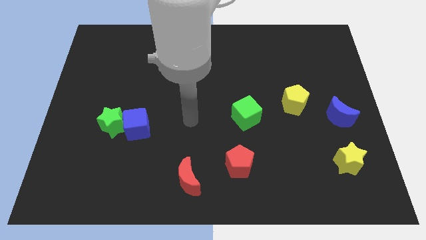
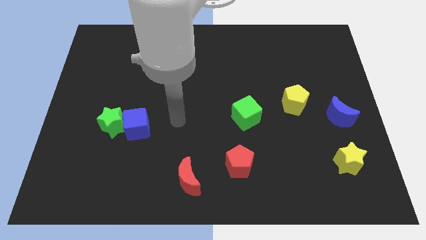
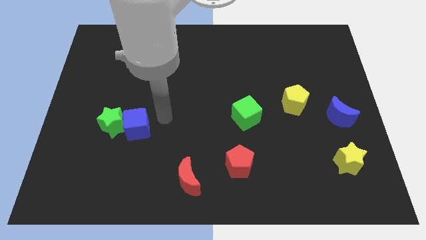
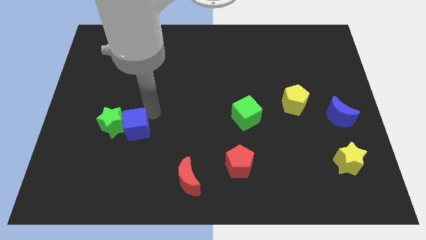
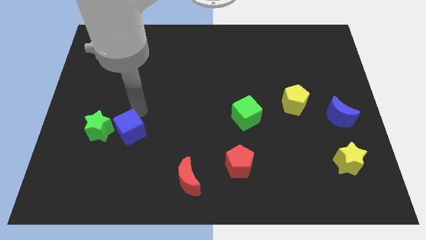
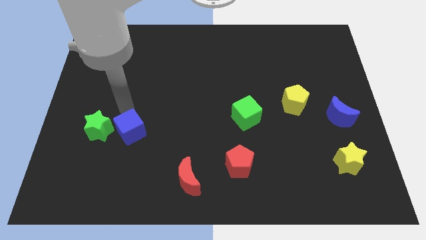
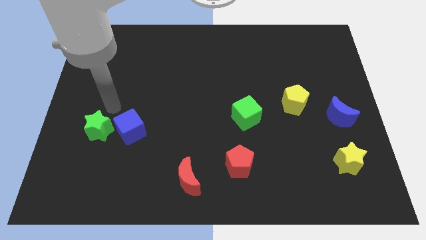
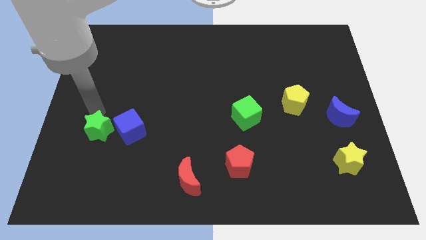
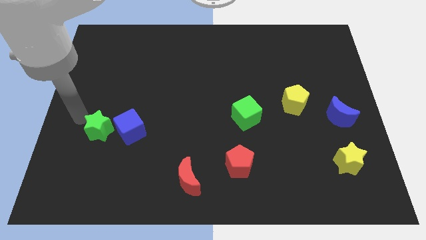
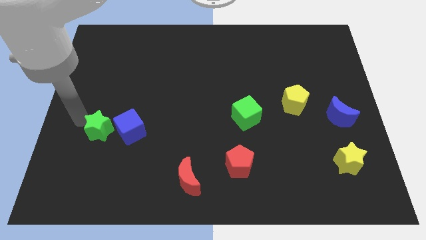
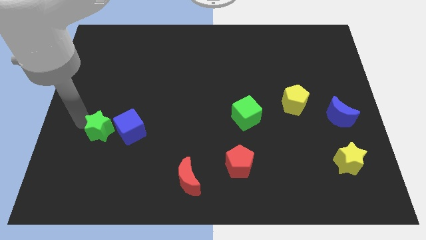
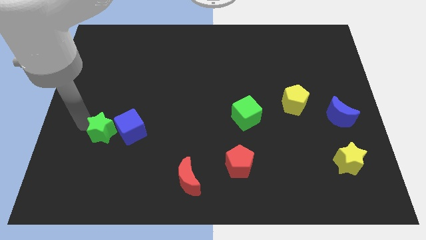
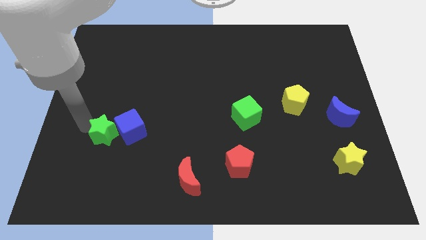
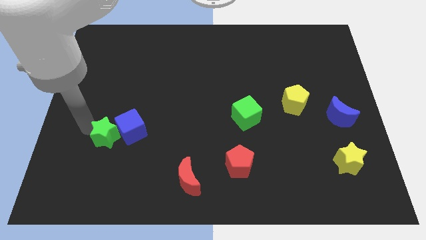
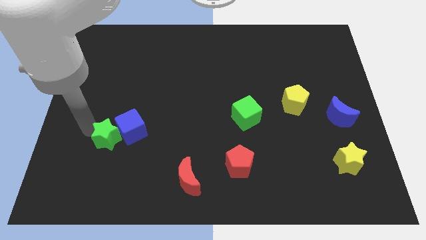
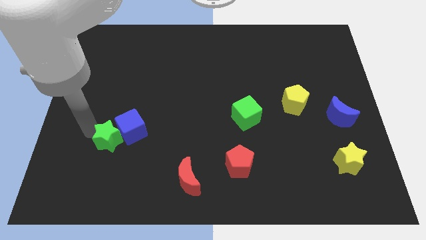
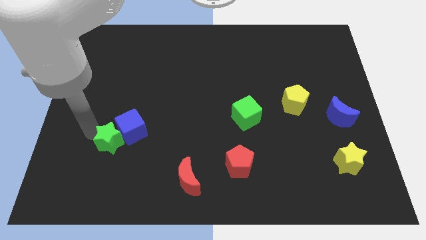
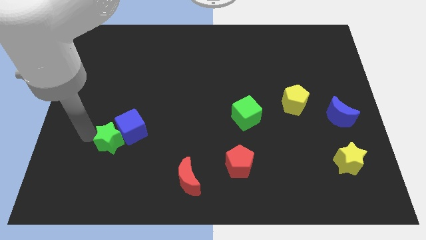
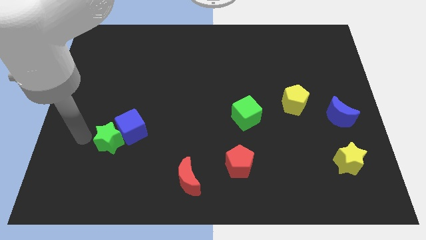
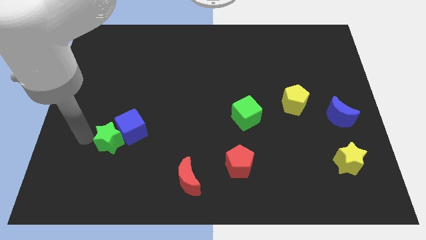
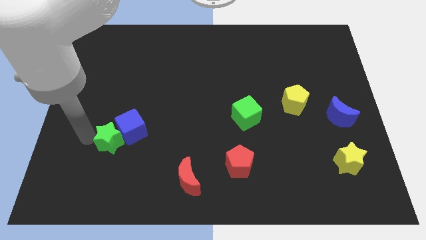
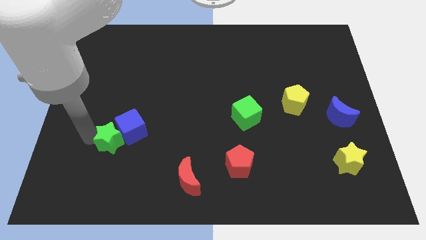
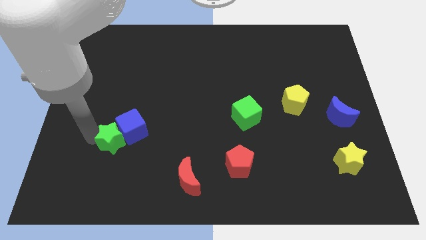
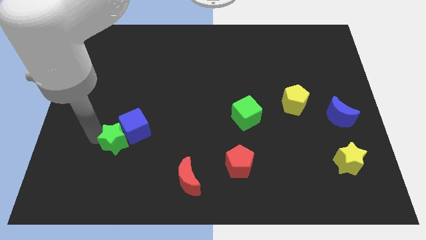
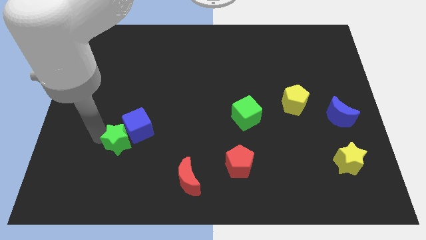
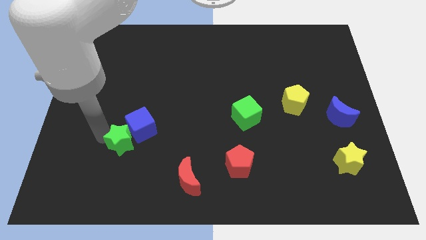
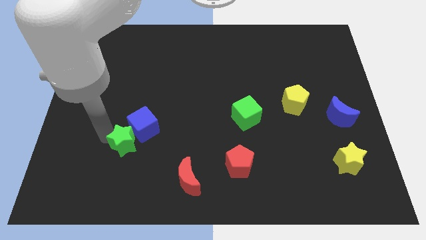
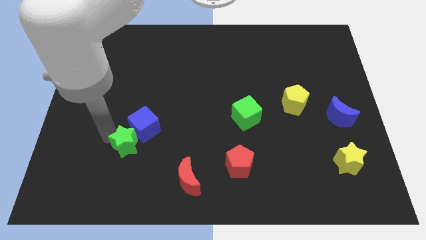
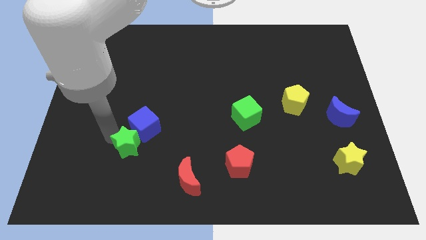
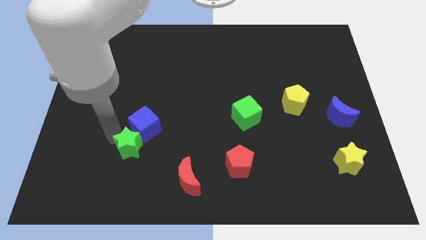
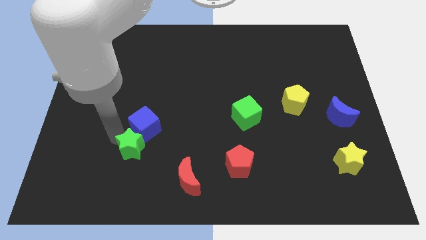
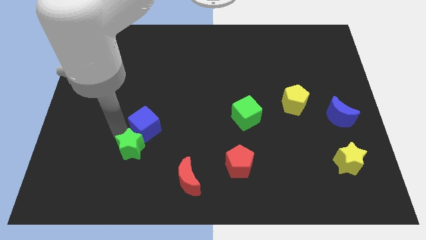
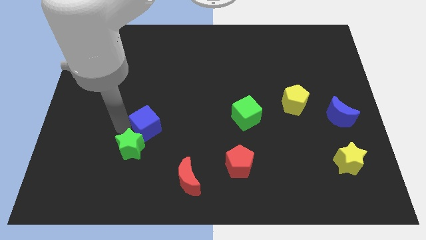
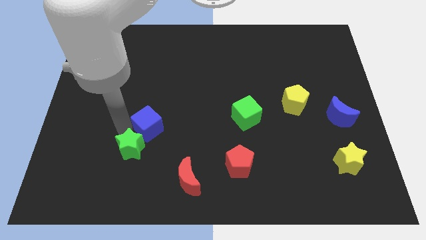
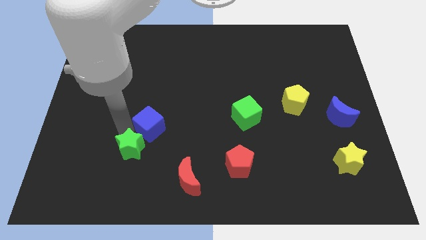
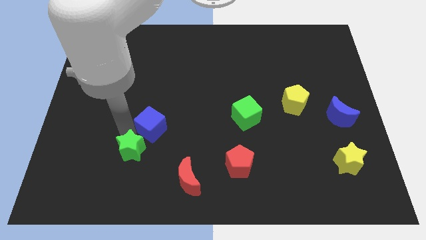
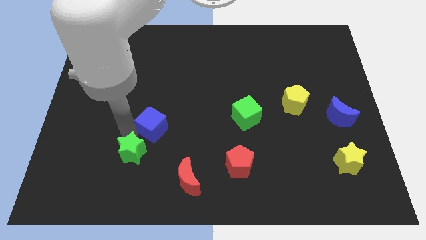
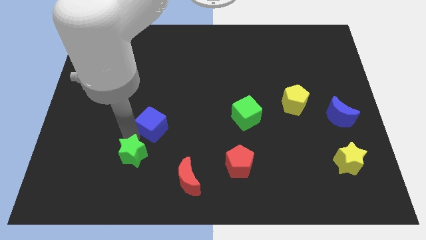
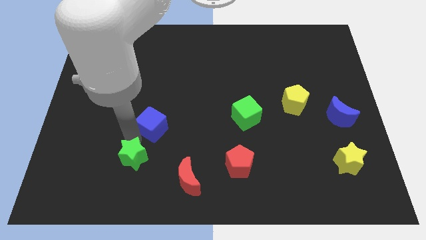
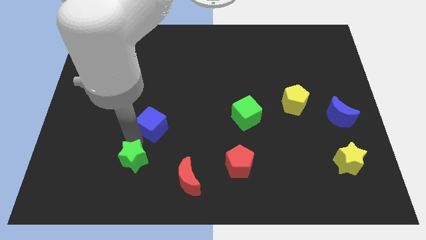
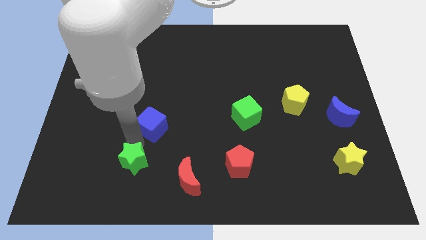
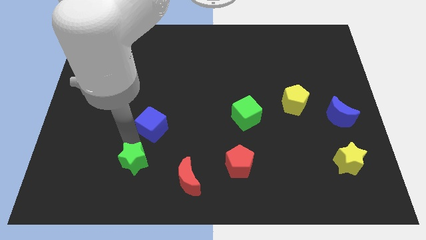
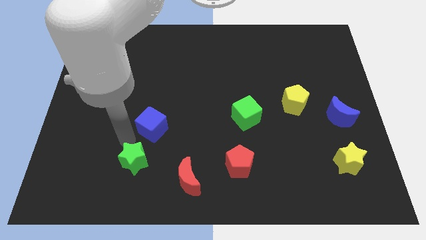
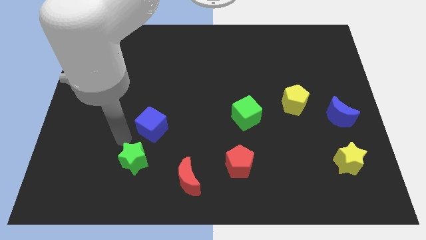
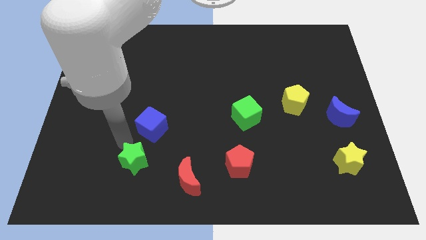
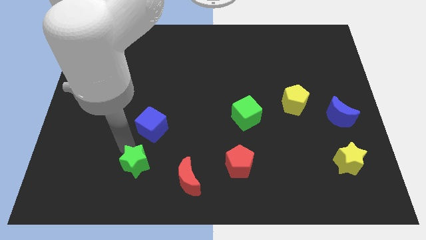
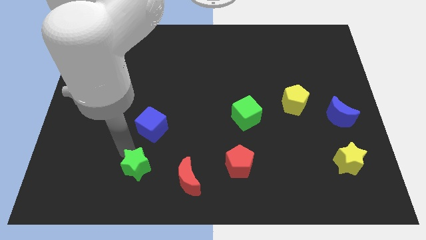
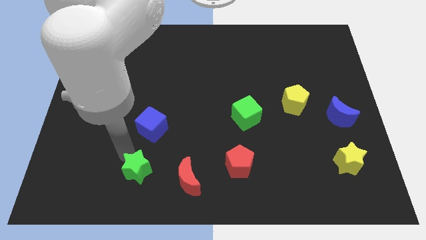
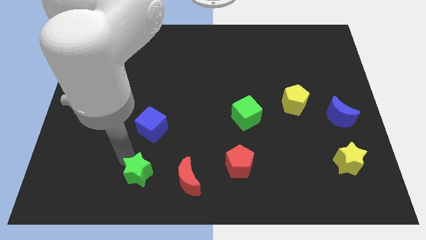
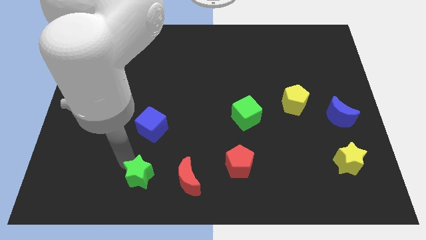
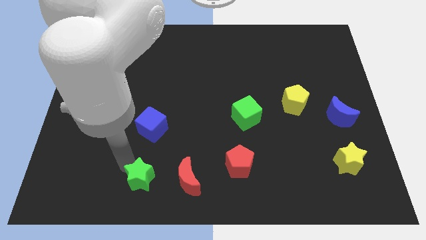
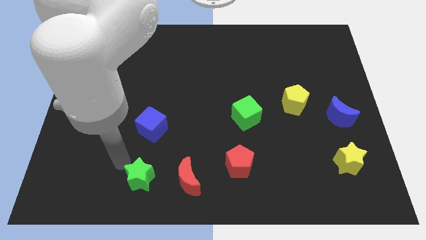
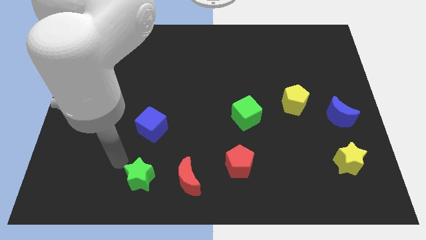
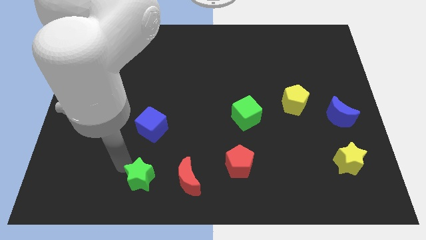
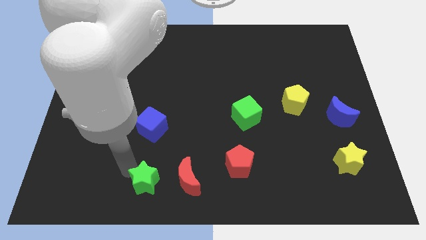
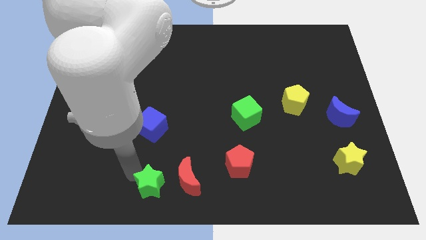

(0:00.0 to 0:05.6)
put the green star to the bottom

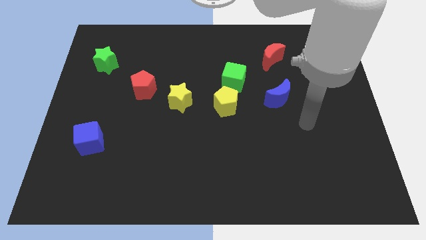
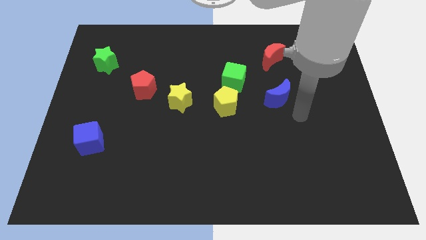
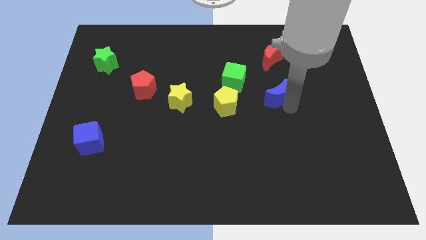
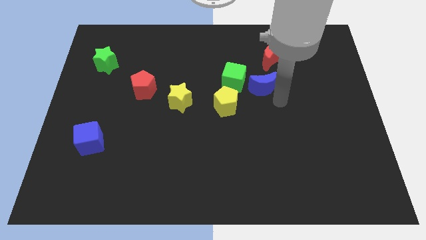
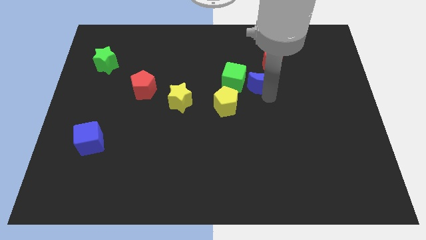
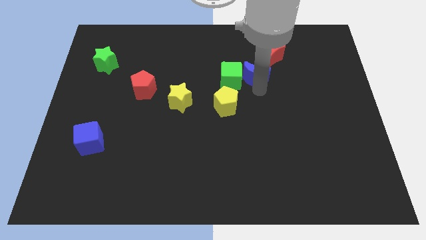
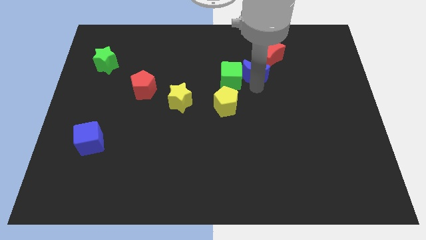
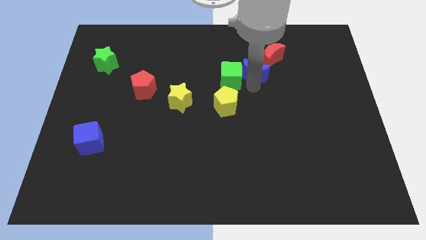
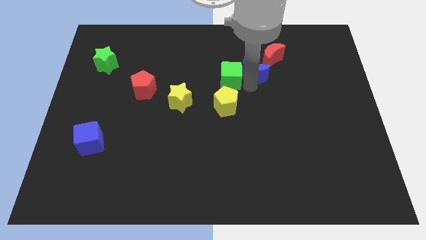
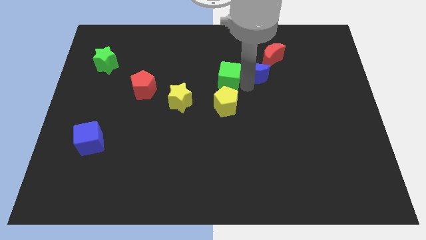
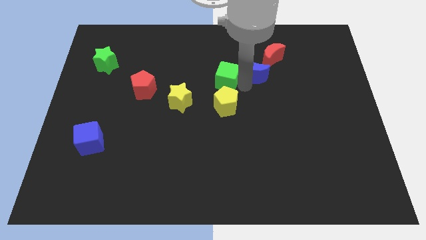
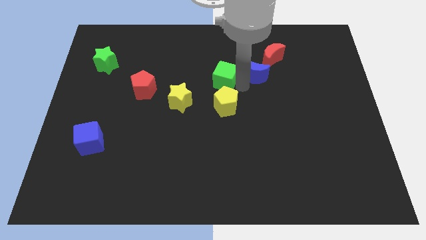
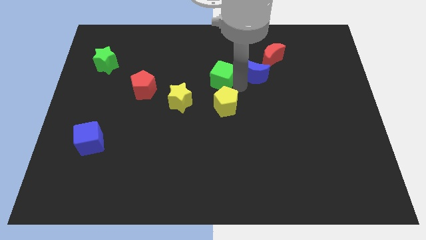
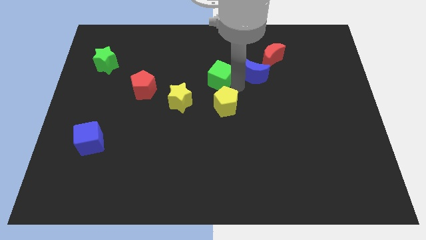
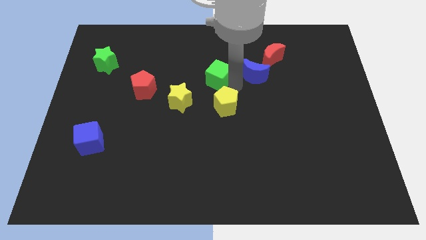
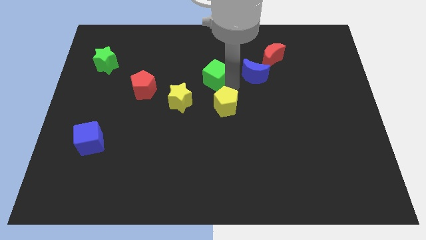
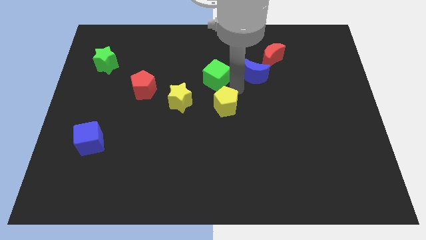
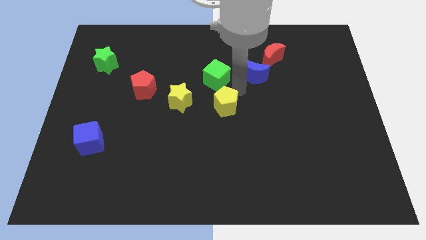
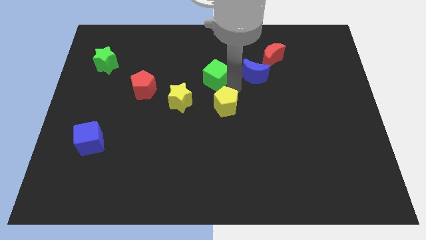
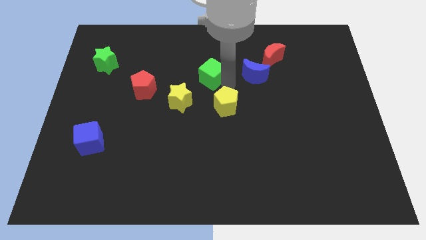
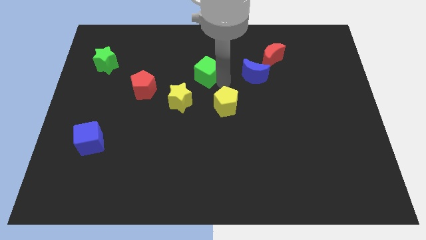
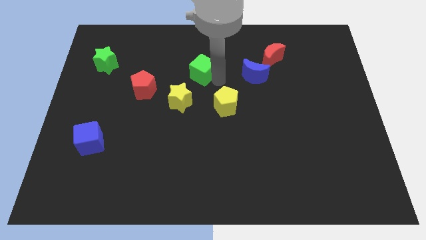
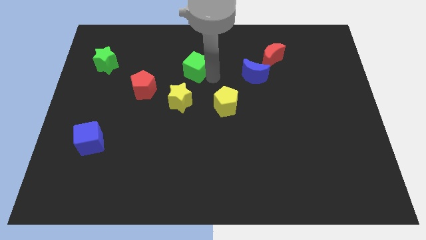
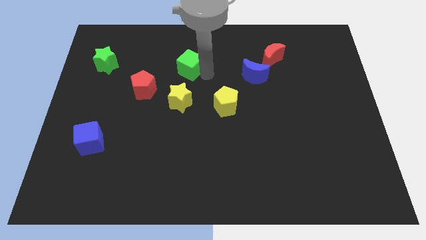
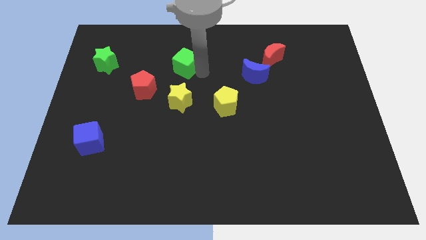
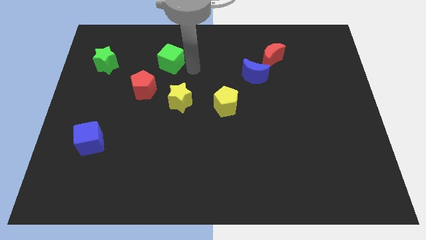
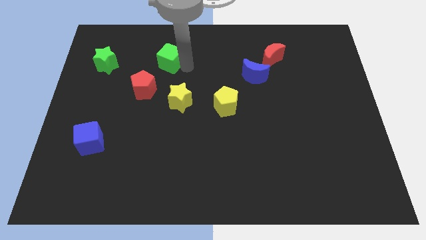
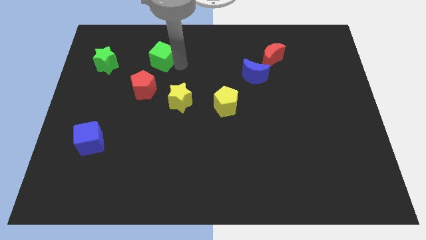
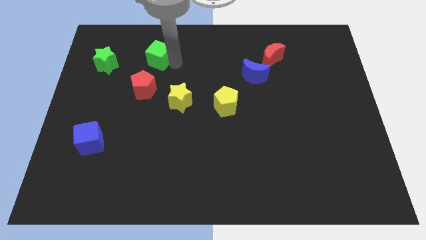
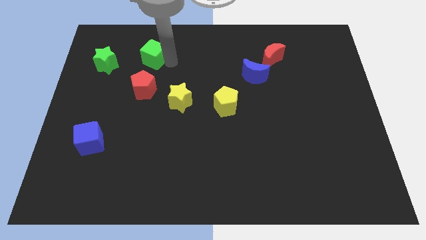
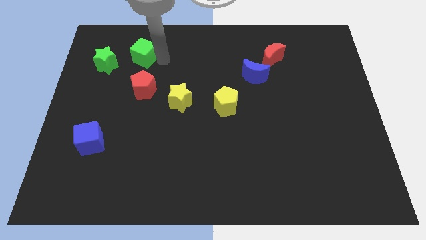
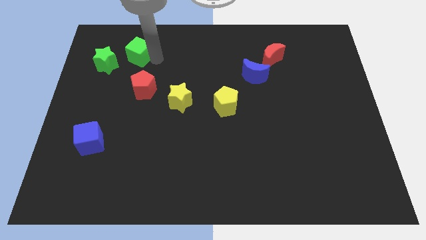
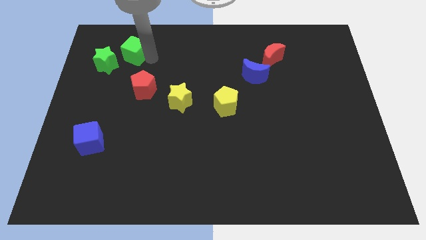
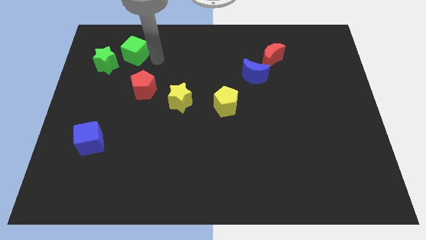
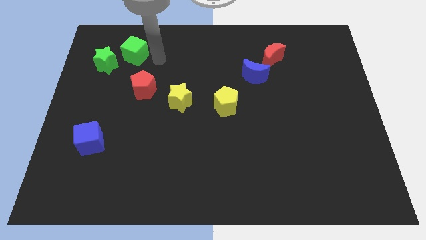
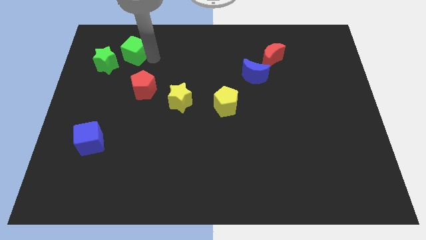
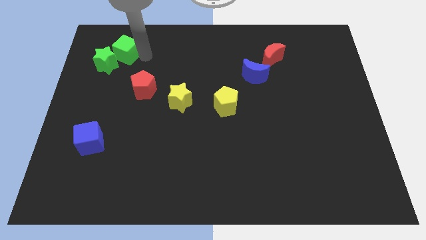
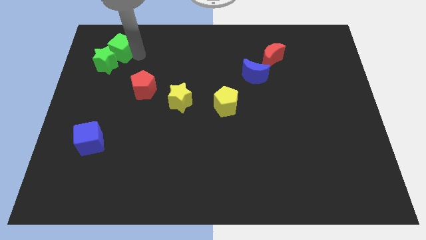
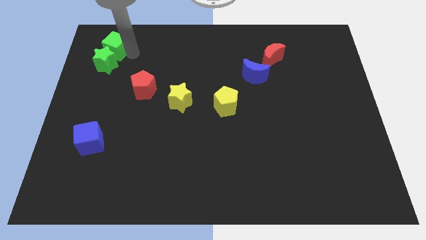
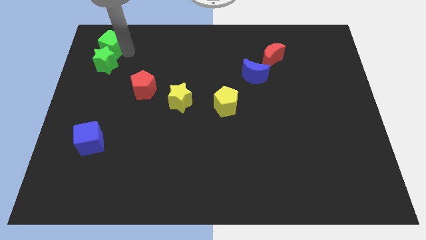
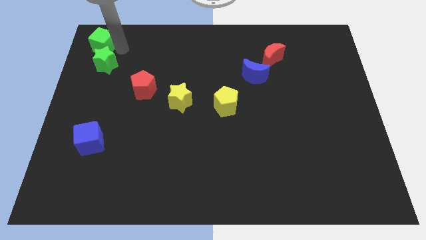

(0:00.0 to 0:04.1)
put the green cube to the upper left corner
